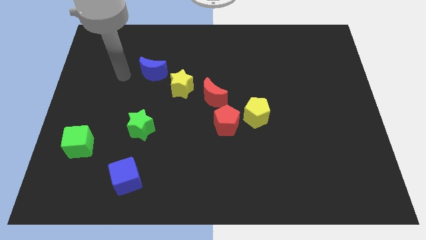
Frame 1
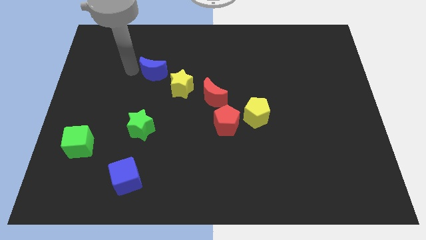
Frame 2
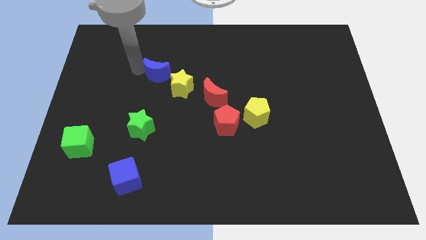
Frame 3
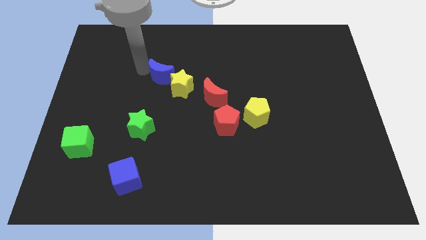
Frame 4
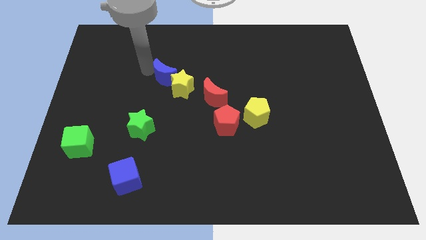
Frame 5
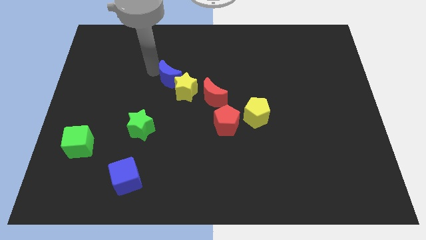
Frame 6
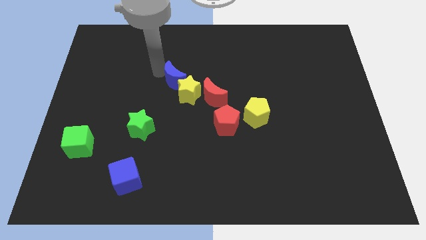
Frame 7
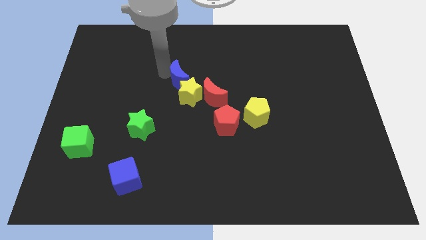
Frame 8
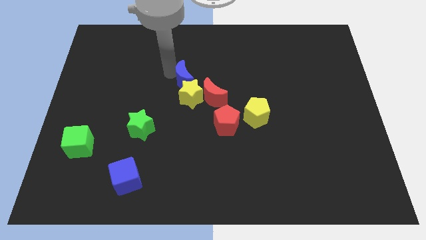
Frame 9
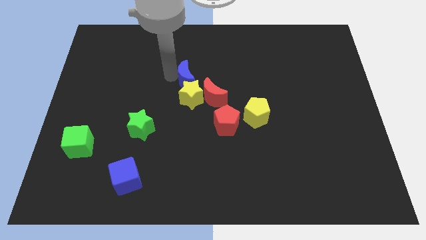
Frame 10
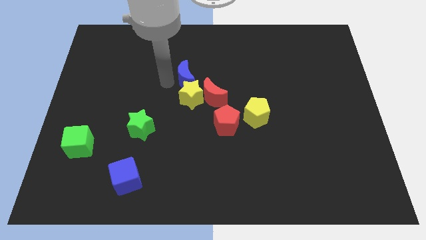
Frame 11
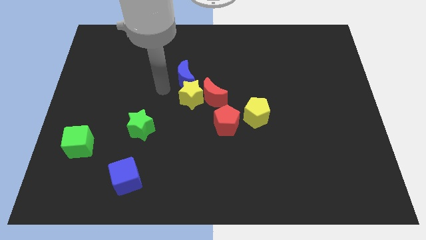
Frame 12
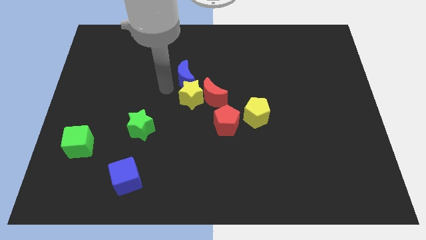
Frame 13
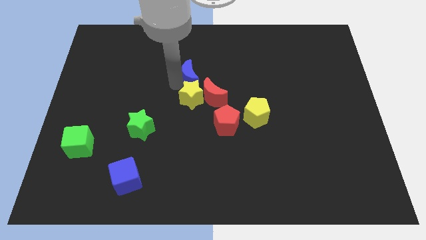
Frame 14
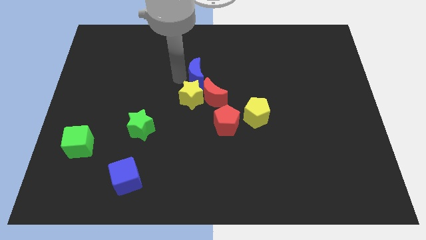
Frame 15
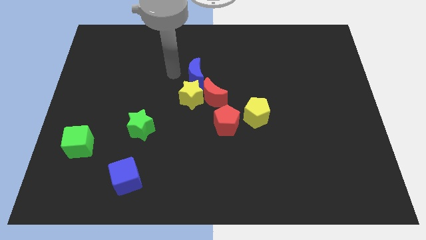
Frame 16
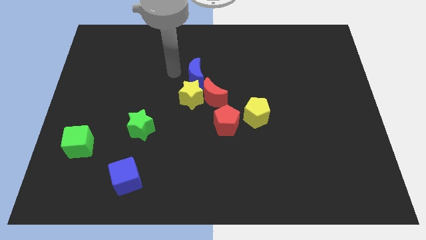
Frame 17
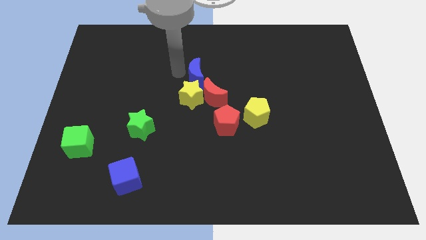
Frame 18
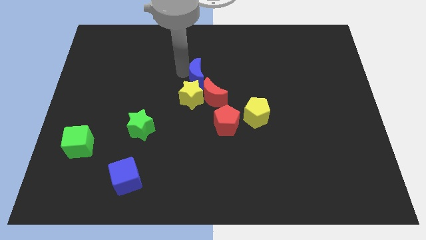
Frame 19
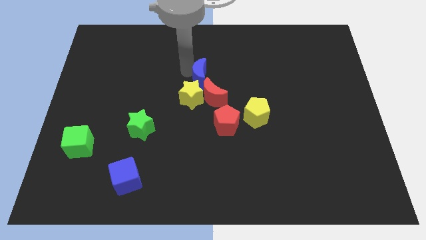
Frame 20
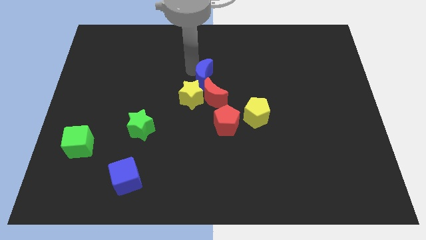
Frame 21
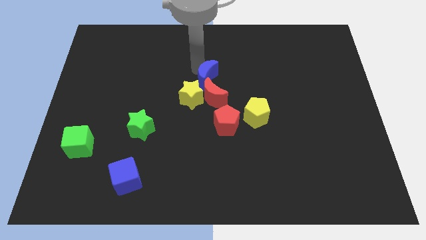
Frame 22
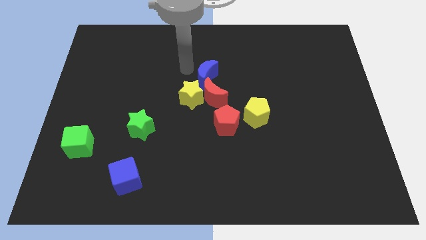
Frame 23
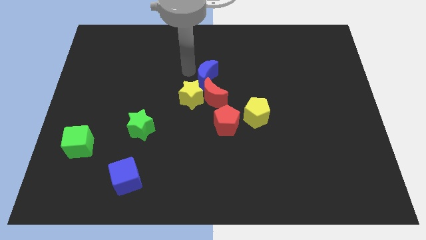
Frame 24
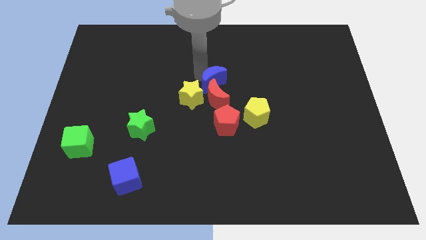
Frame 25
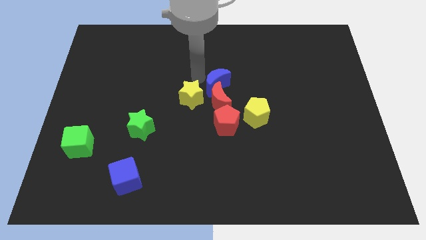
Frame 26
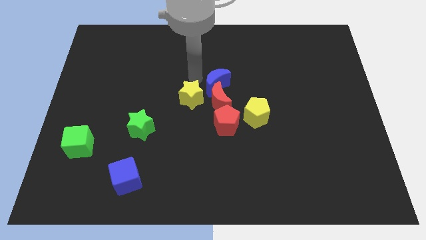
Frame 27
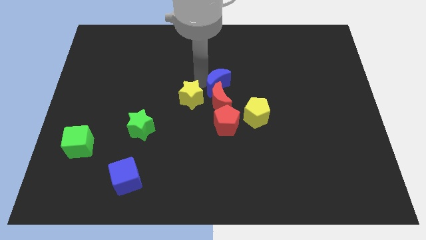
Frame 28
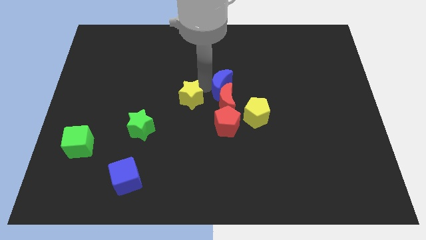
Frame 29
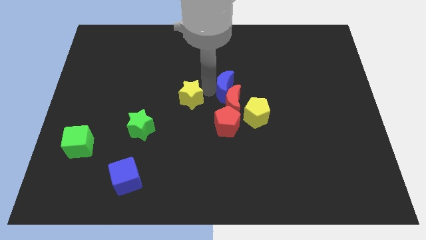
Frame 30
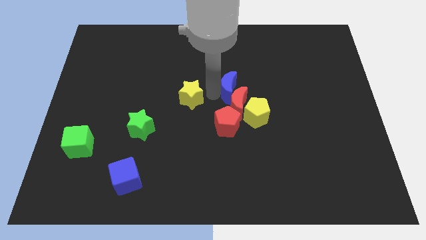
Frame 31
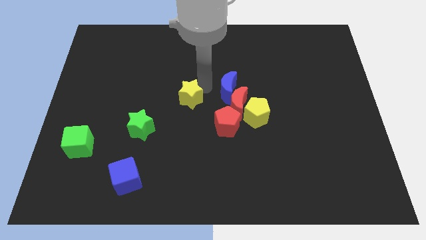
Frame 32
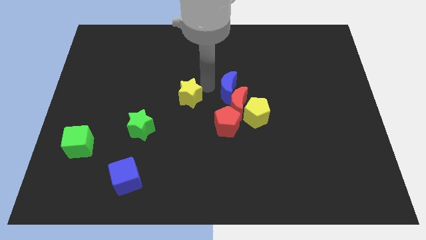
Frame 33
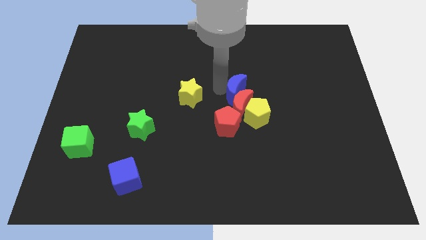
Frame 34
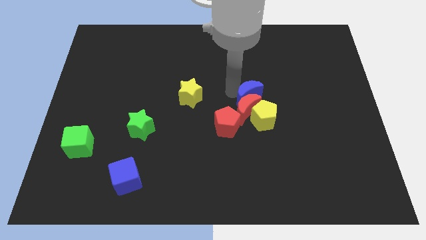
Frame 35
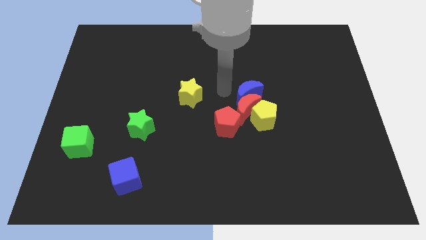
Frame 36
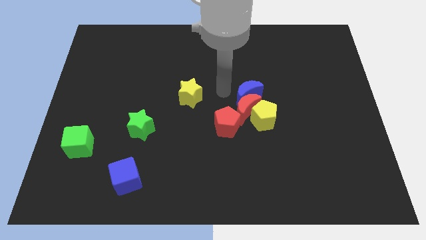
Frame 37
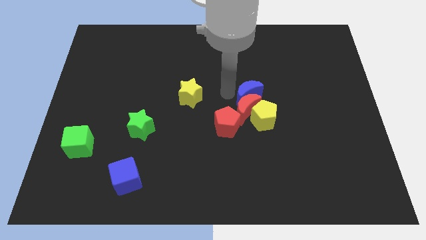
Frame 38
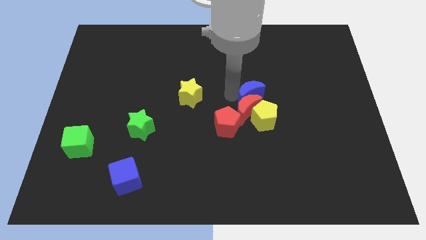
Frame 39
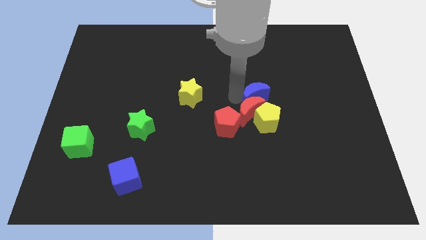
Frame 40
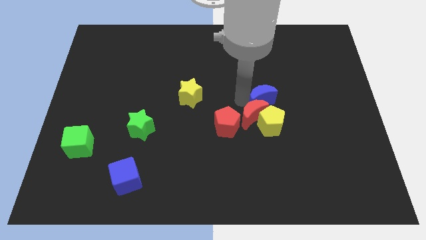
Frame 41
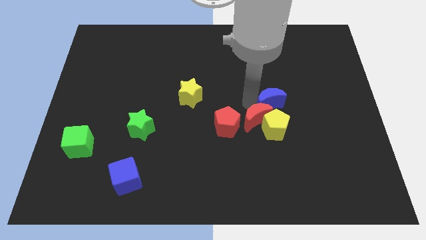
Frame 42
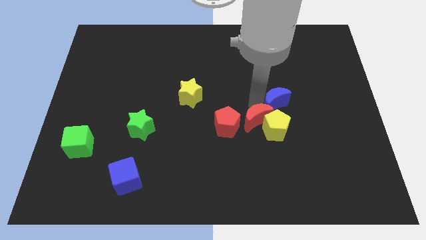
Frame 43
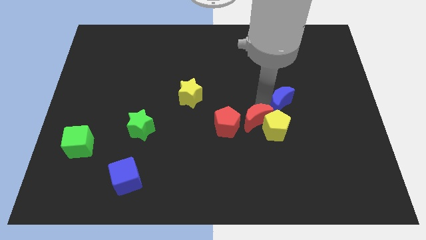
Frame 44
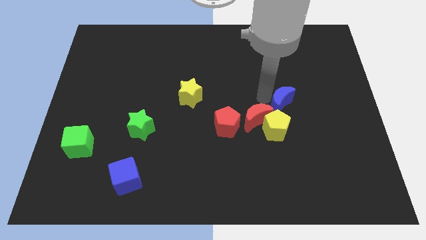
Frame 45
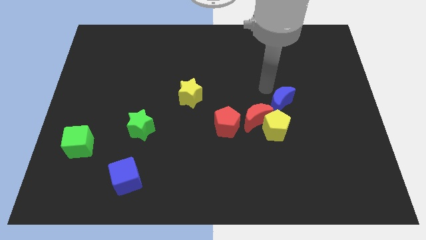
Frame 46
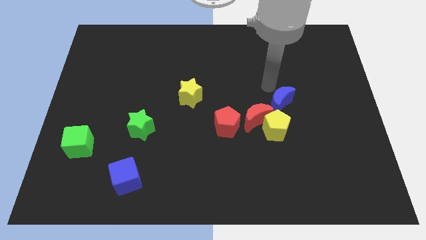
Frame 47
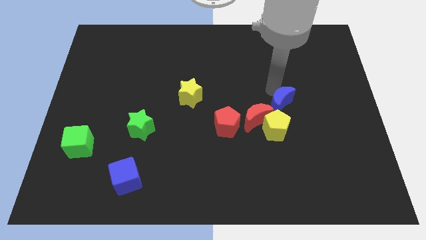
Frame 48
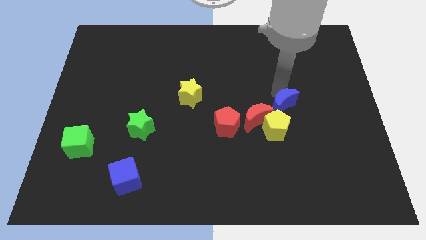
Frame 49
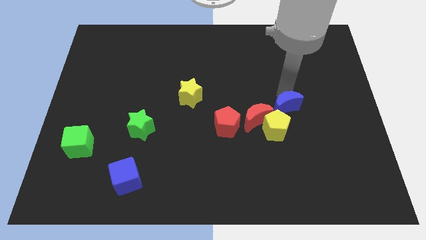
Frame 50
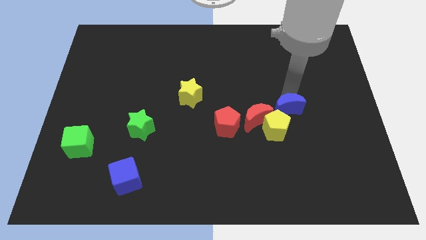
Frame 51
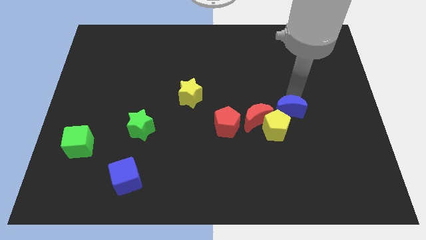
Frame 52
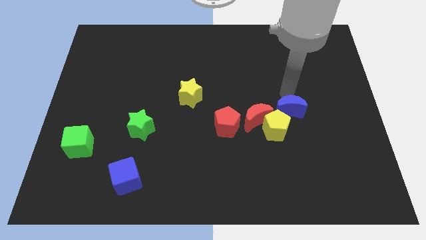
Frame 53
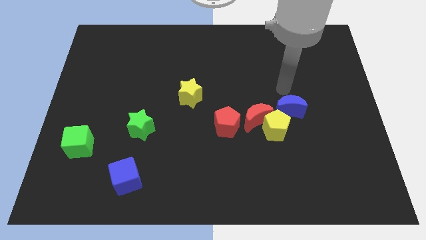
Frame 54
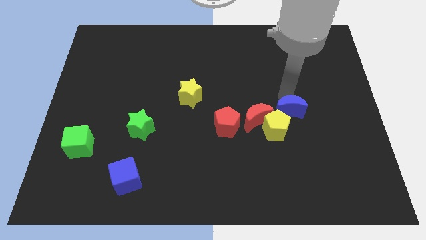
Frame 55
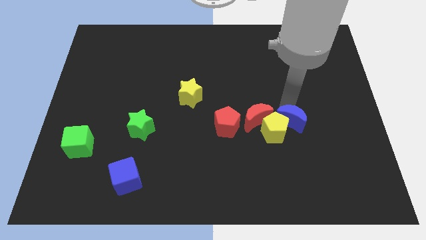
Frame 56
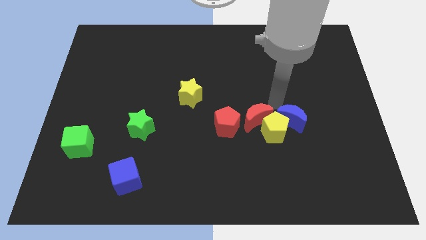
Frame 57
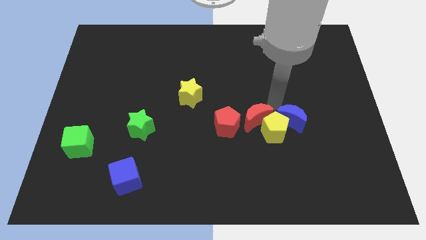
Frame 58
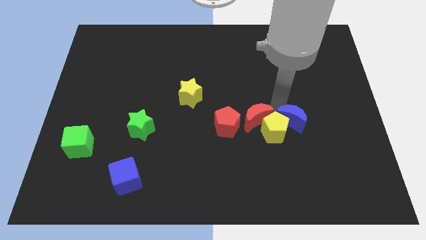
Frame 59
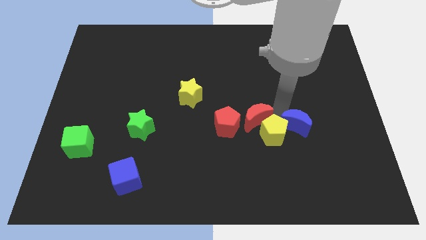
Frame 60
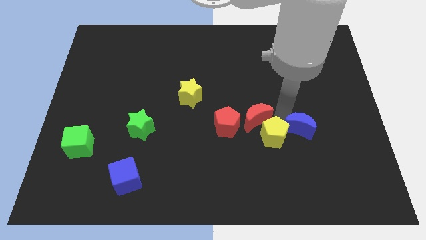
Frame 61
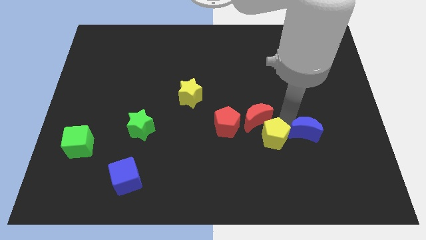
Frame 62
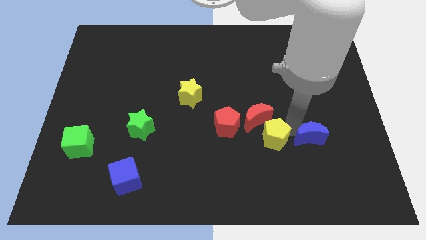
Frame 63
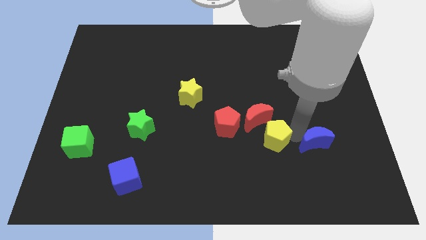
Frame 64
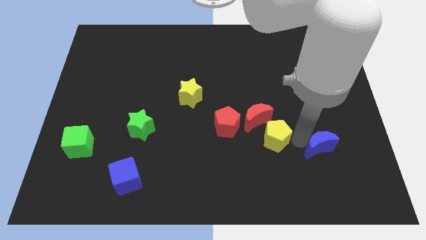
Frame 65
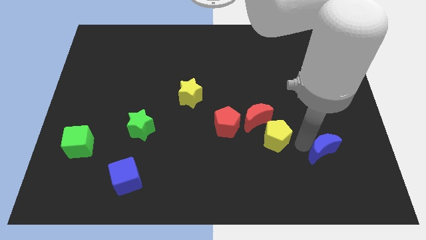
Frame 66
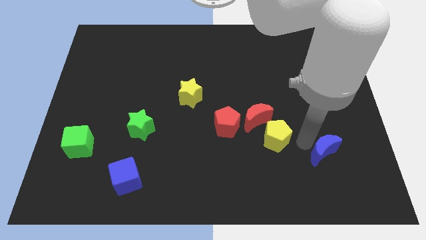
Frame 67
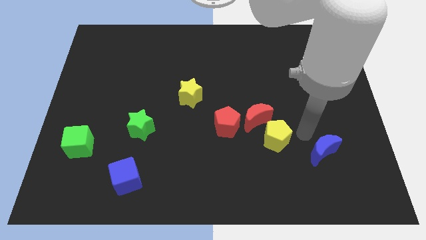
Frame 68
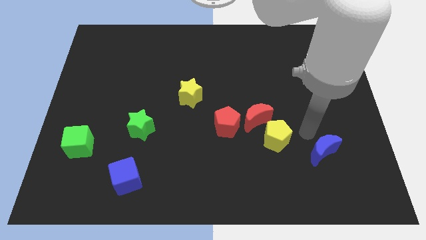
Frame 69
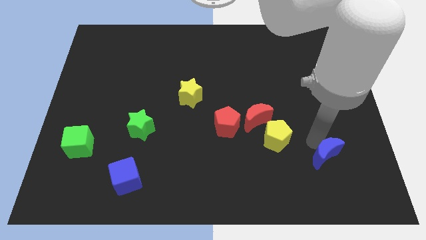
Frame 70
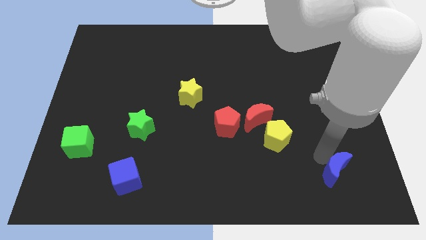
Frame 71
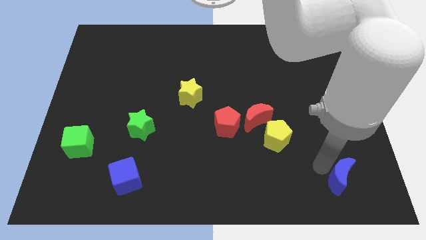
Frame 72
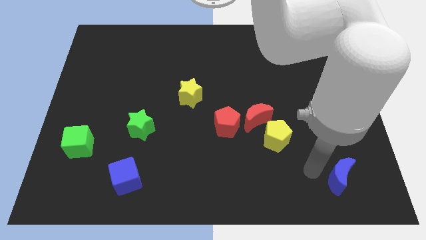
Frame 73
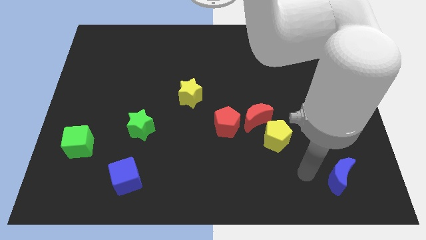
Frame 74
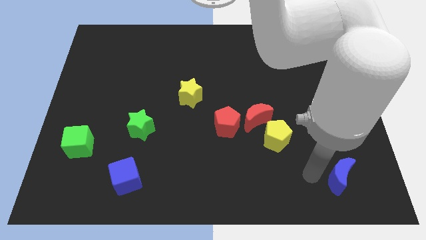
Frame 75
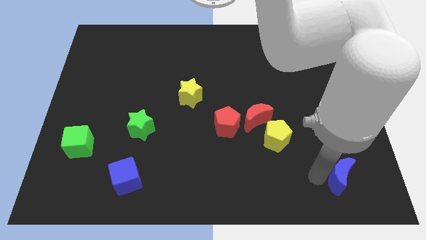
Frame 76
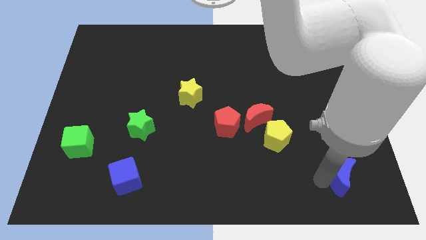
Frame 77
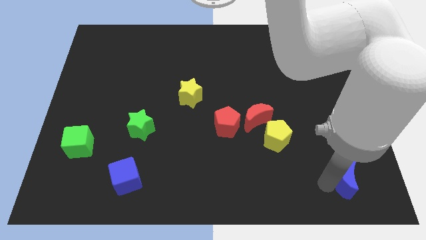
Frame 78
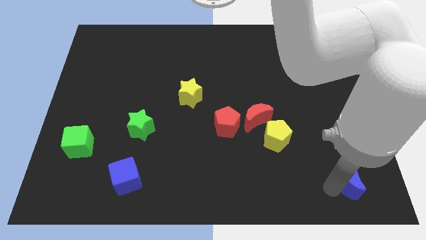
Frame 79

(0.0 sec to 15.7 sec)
push the blue moon to the bottom right of the board
